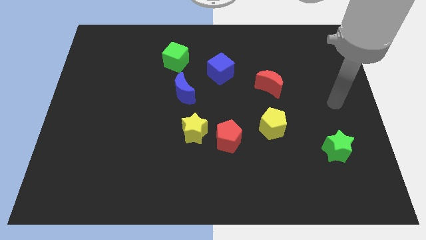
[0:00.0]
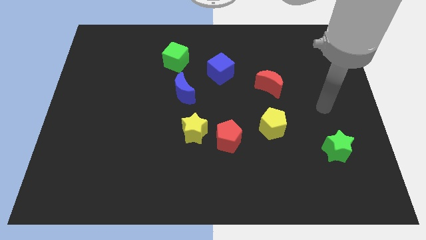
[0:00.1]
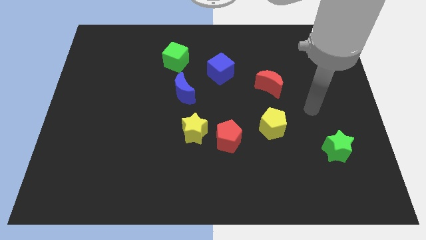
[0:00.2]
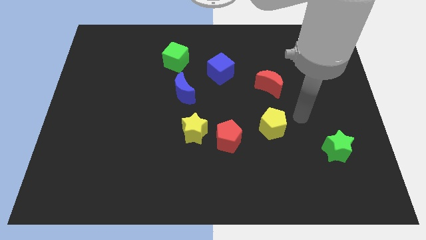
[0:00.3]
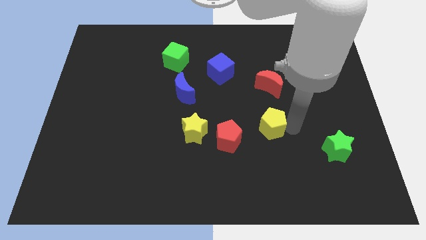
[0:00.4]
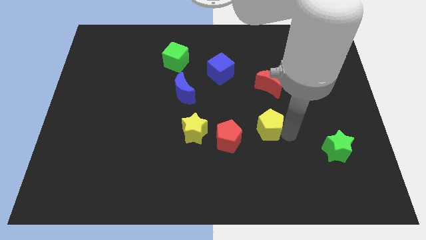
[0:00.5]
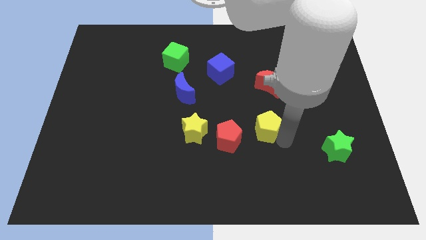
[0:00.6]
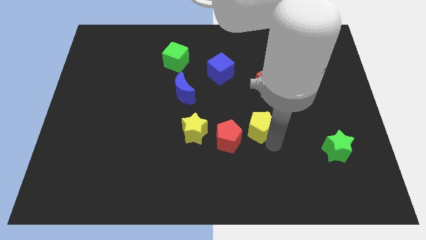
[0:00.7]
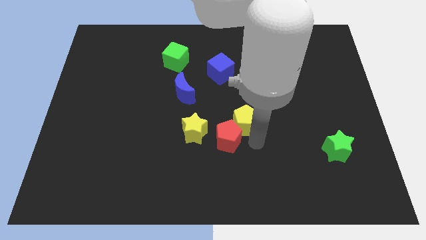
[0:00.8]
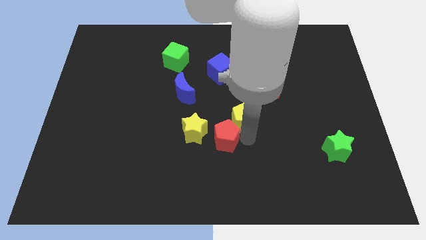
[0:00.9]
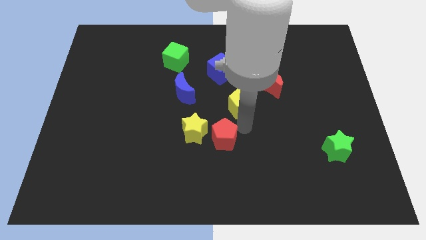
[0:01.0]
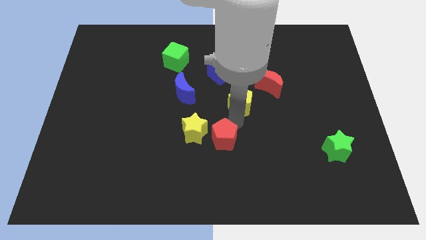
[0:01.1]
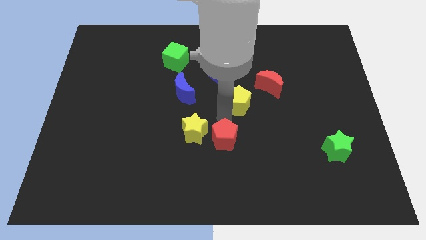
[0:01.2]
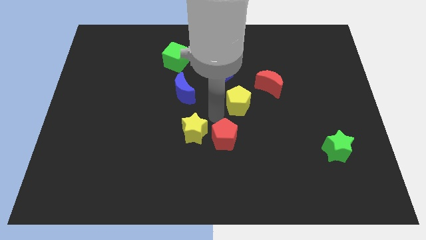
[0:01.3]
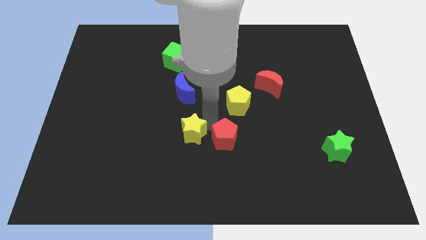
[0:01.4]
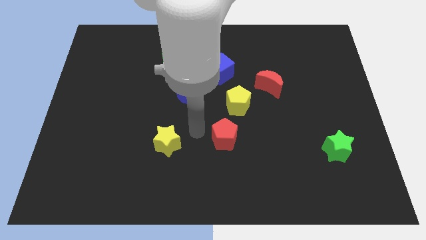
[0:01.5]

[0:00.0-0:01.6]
separate the red pentagon from the yellow star

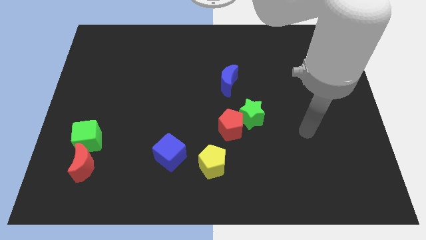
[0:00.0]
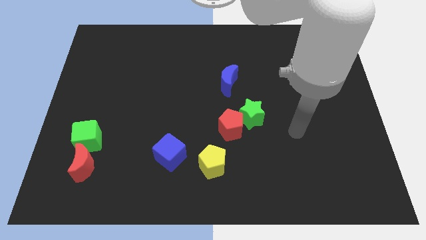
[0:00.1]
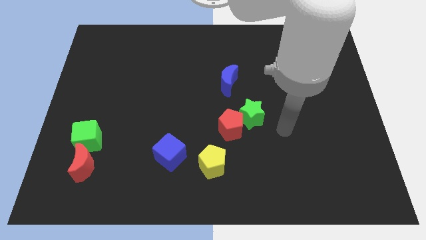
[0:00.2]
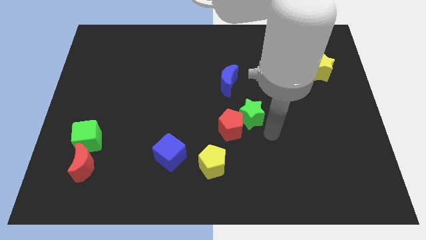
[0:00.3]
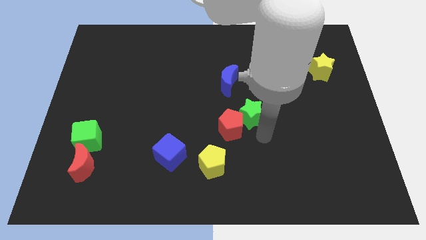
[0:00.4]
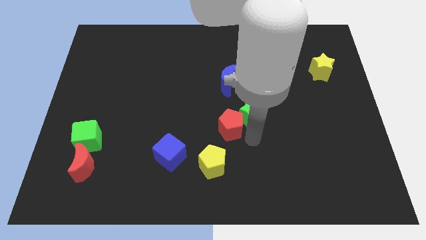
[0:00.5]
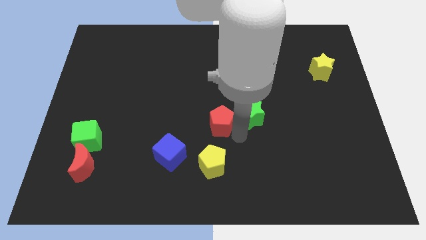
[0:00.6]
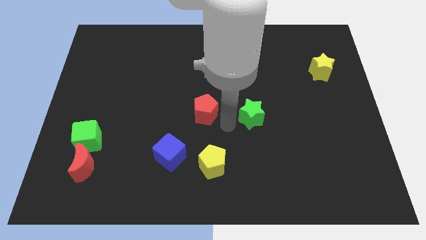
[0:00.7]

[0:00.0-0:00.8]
move the green star away from the red pentagon

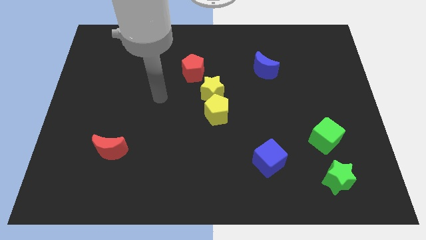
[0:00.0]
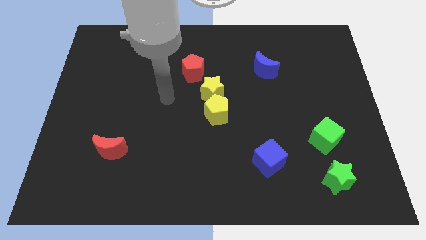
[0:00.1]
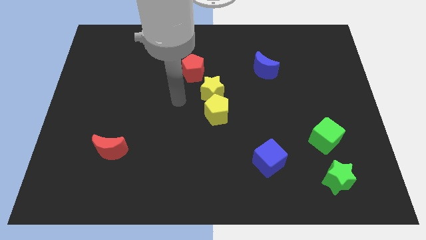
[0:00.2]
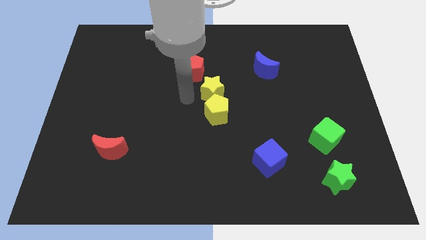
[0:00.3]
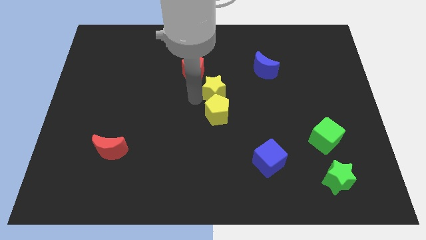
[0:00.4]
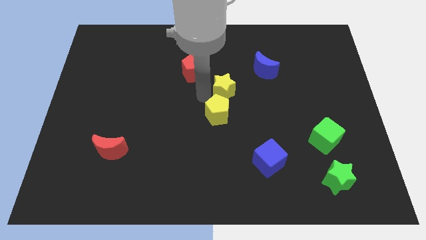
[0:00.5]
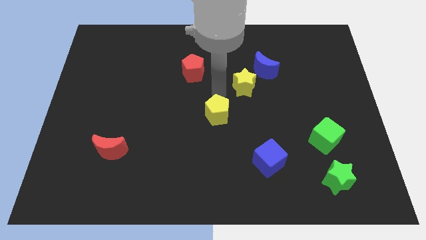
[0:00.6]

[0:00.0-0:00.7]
pull the yellow pentagon apart from the yellow star

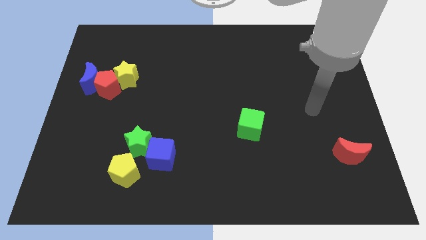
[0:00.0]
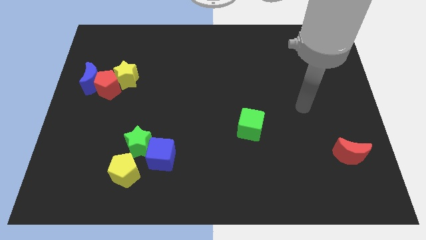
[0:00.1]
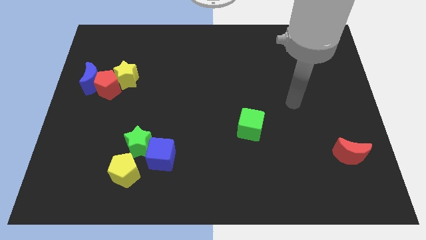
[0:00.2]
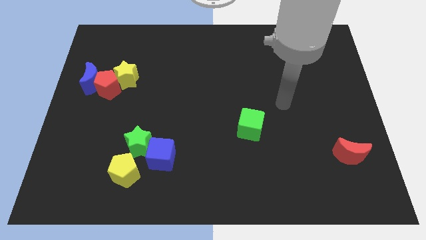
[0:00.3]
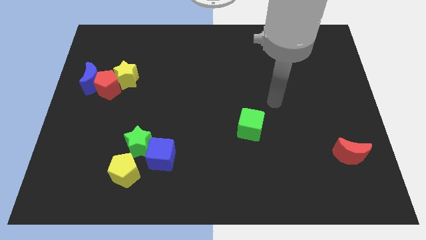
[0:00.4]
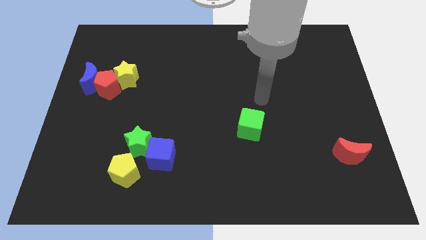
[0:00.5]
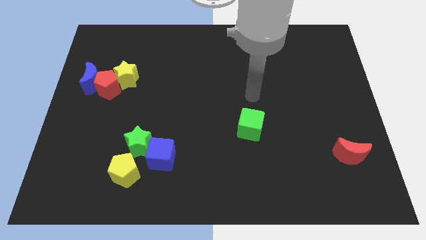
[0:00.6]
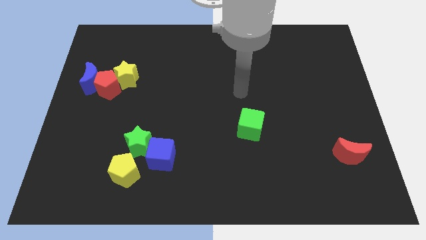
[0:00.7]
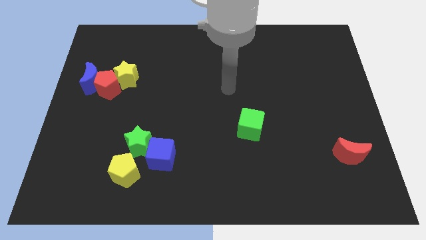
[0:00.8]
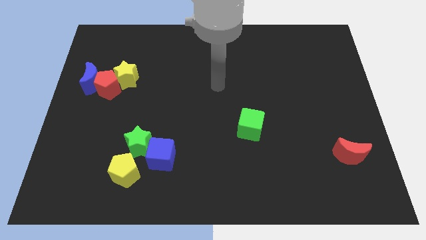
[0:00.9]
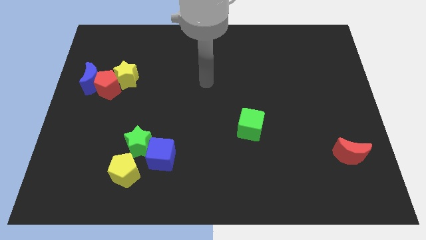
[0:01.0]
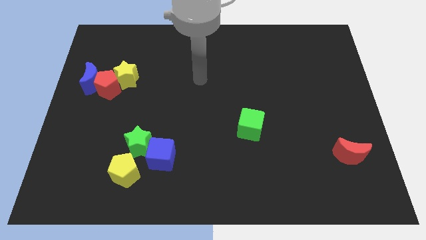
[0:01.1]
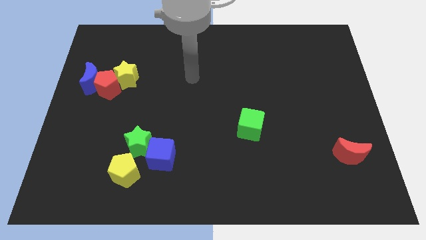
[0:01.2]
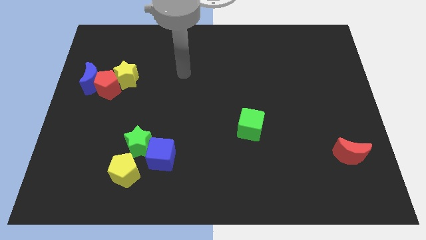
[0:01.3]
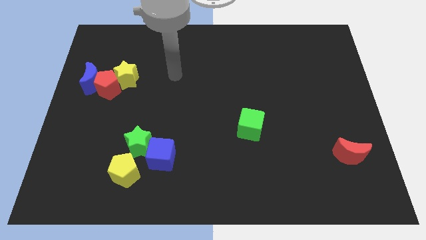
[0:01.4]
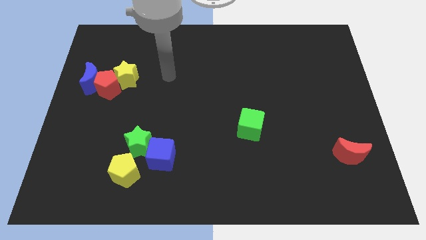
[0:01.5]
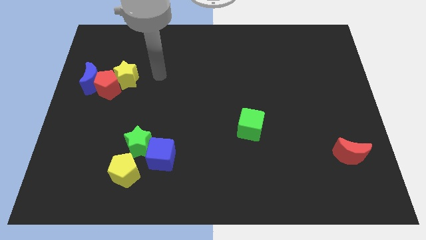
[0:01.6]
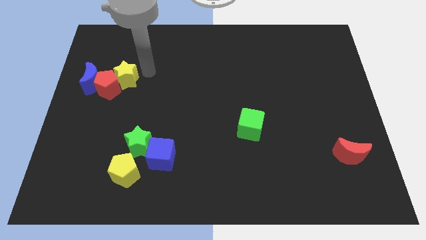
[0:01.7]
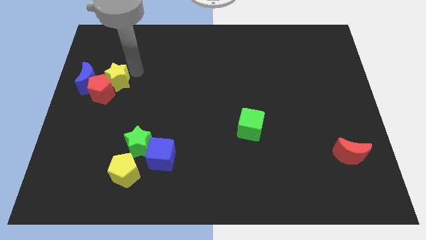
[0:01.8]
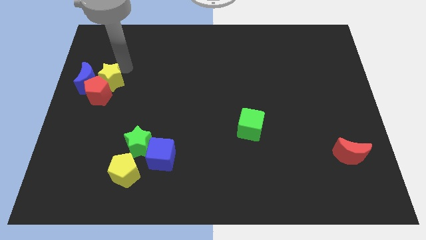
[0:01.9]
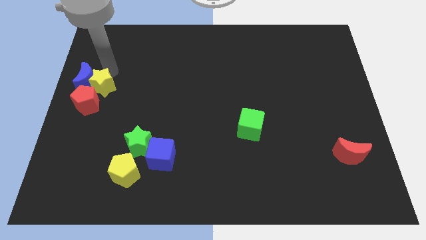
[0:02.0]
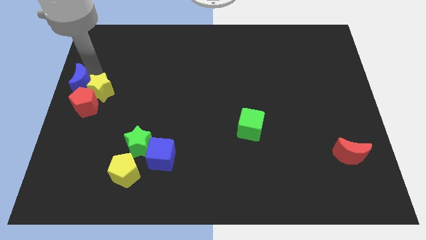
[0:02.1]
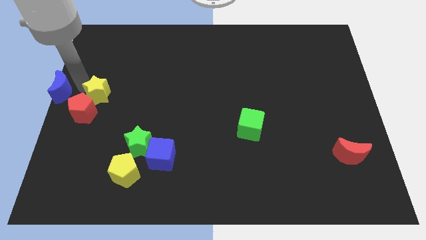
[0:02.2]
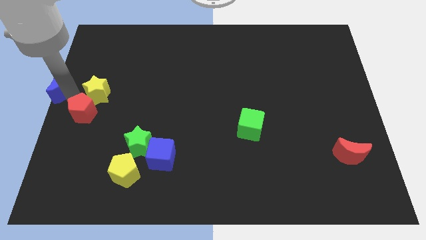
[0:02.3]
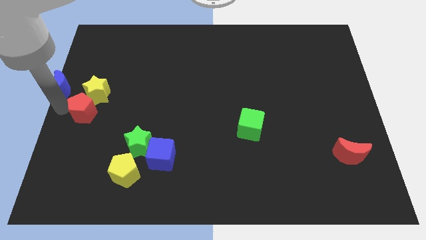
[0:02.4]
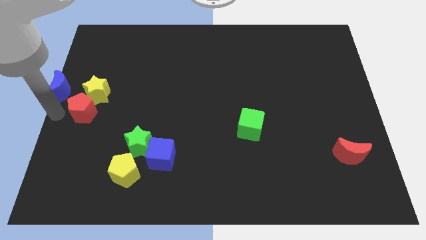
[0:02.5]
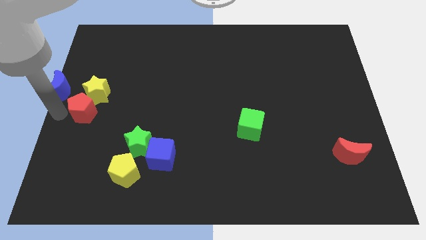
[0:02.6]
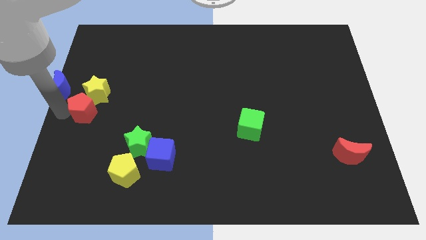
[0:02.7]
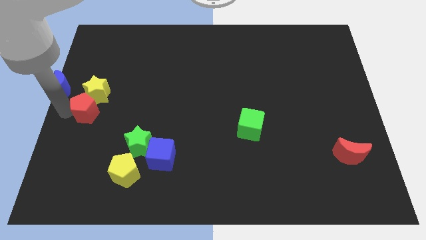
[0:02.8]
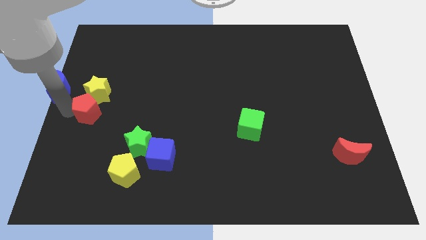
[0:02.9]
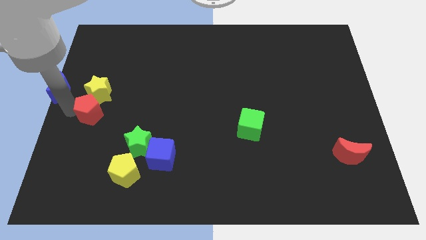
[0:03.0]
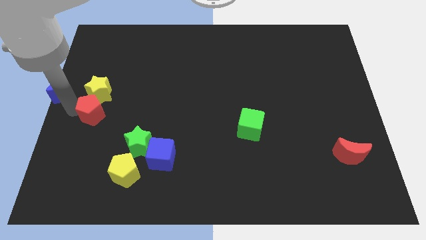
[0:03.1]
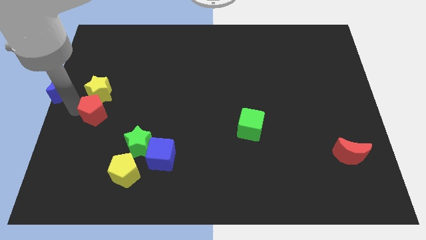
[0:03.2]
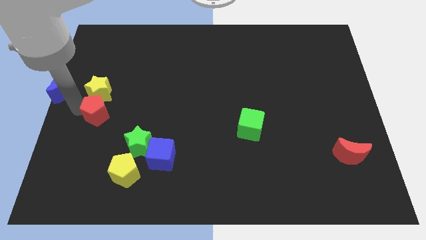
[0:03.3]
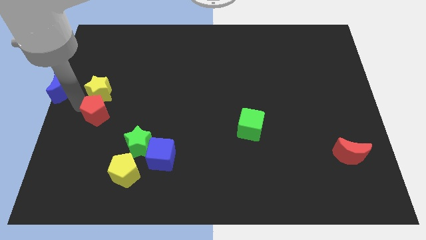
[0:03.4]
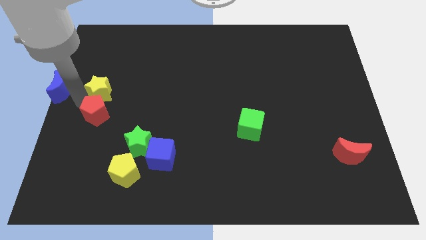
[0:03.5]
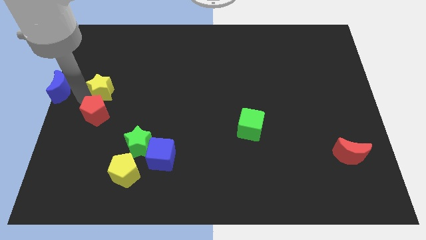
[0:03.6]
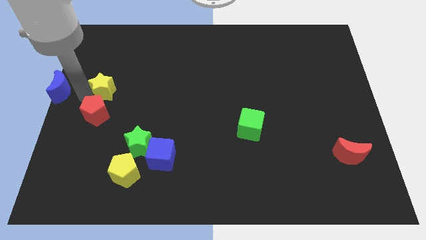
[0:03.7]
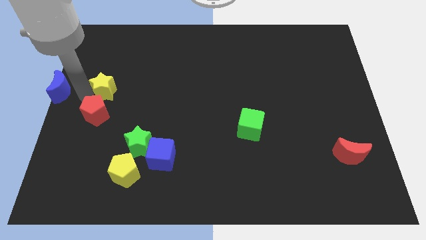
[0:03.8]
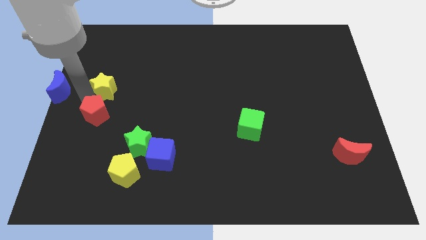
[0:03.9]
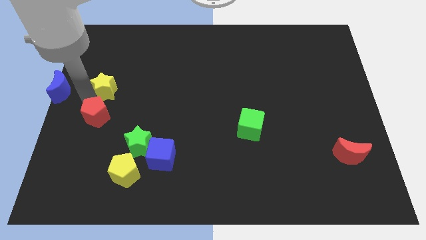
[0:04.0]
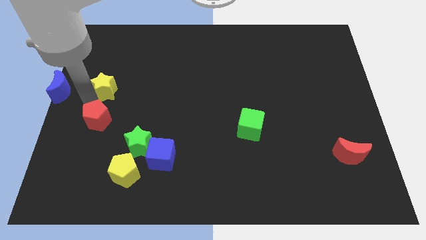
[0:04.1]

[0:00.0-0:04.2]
move the red pentagon away from the blue moon and yellow star

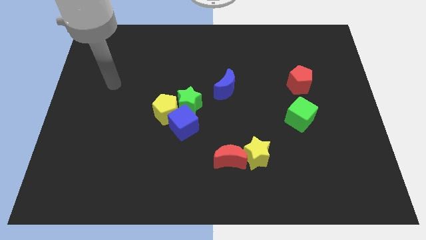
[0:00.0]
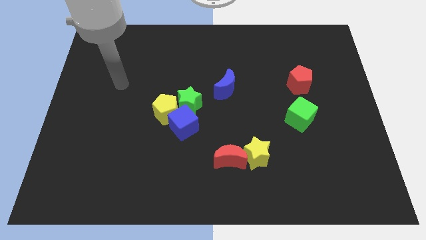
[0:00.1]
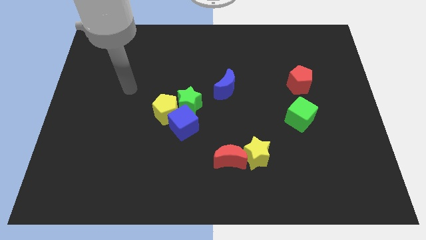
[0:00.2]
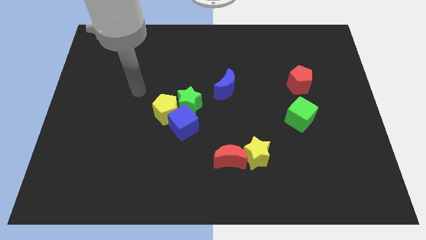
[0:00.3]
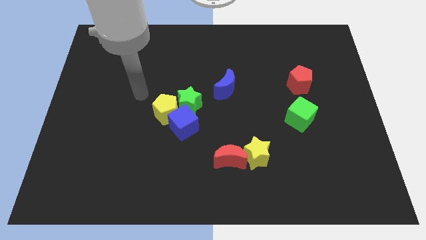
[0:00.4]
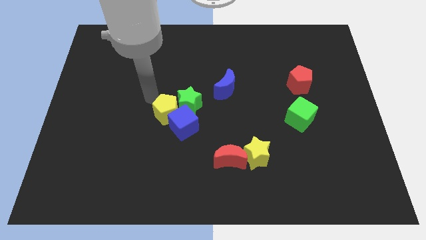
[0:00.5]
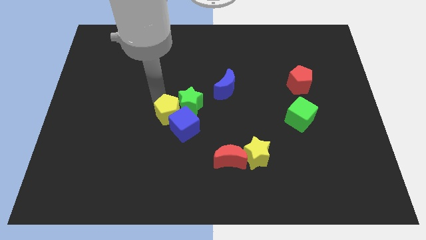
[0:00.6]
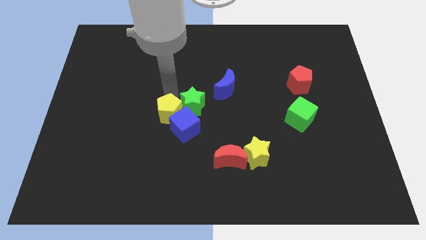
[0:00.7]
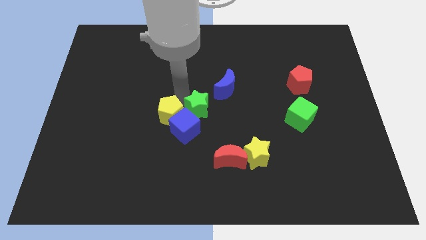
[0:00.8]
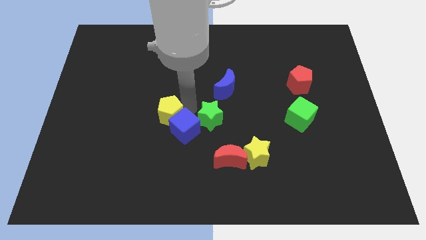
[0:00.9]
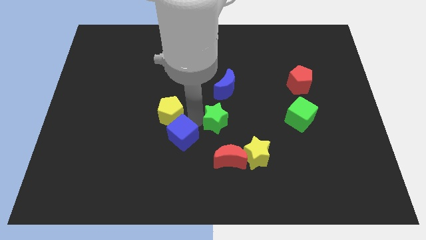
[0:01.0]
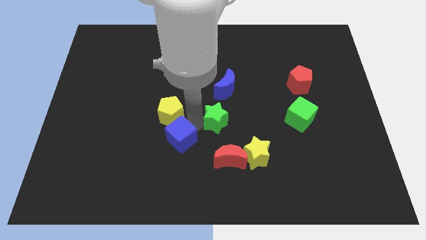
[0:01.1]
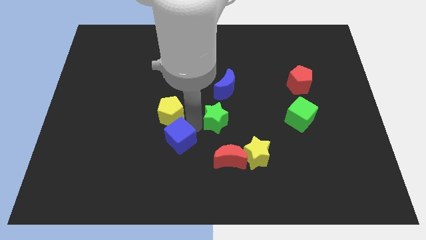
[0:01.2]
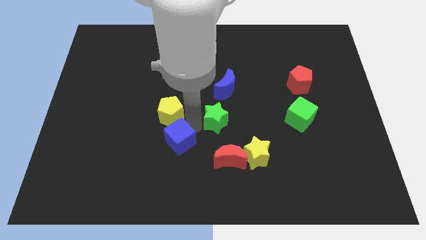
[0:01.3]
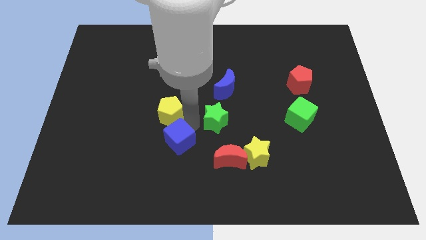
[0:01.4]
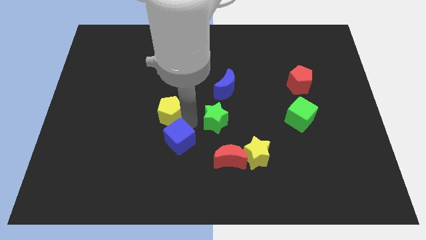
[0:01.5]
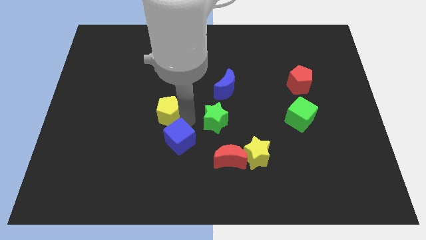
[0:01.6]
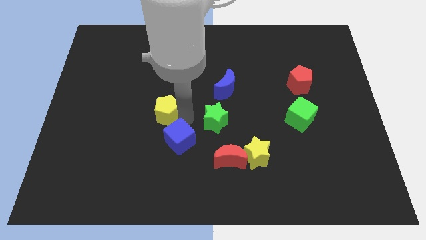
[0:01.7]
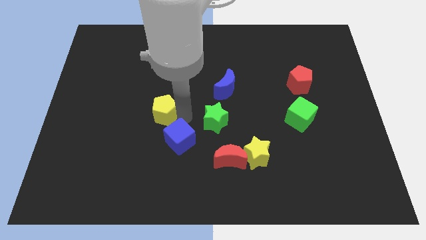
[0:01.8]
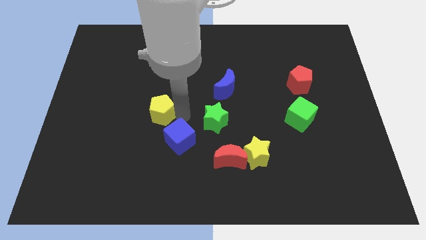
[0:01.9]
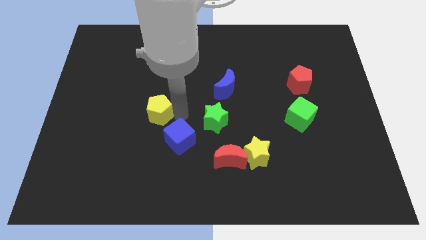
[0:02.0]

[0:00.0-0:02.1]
move the yellow pentagon away from the blue cube and green star
